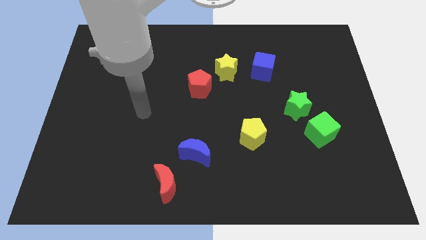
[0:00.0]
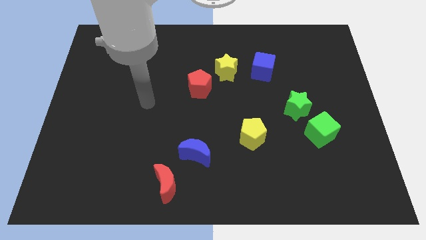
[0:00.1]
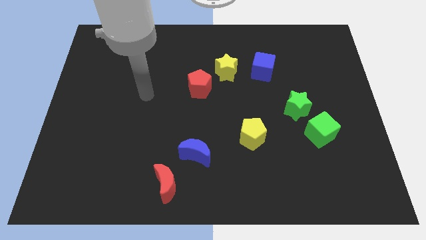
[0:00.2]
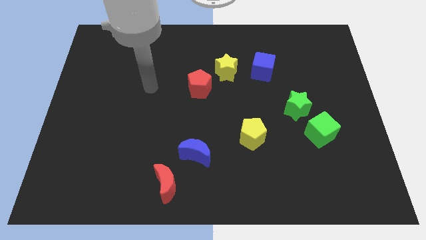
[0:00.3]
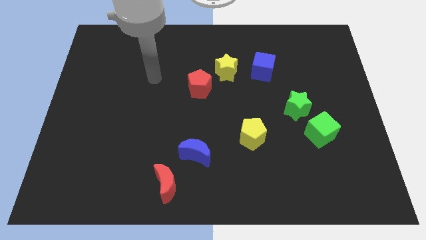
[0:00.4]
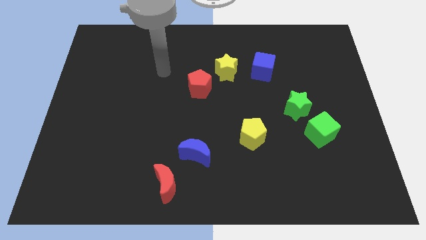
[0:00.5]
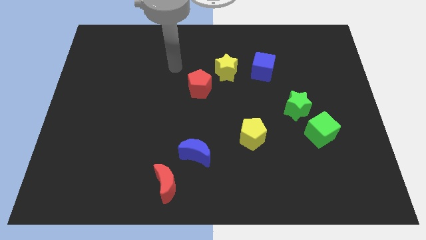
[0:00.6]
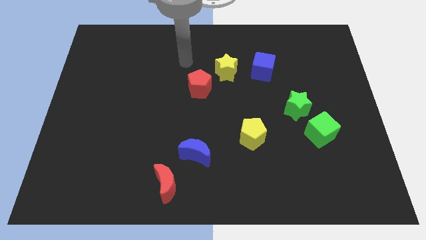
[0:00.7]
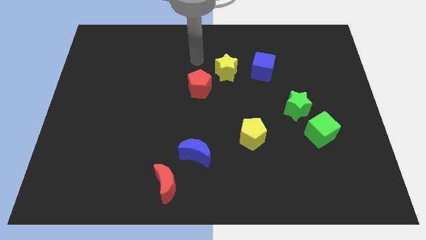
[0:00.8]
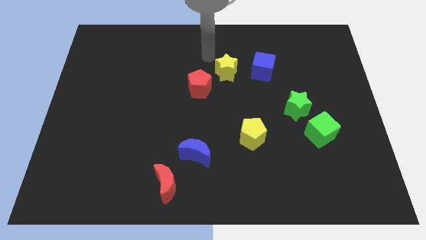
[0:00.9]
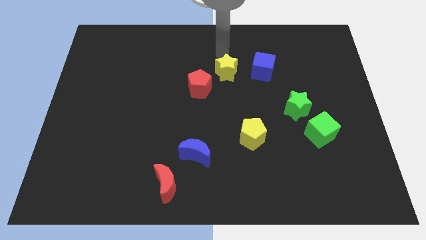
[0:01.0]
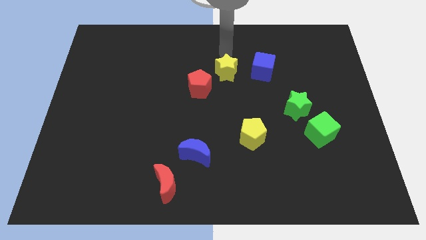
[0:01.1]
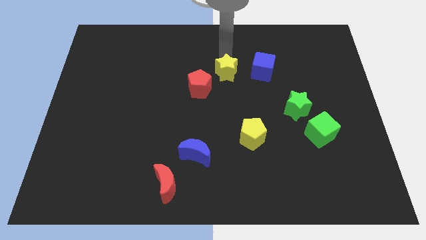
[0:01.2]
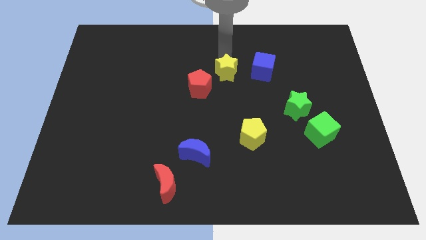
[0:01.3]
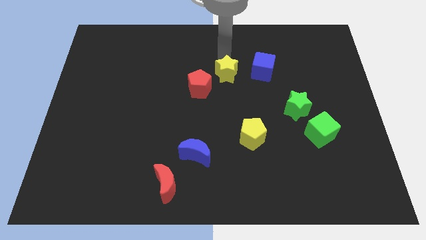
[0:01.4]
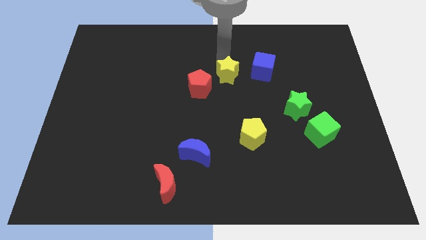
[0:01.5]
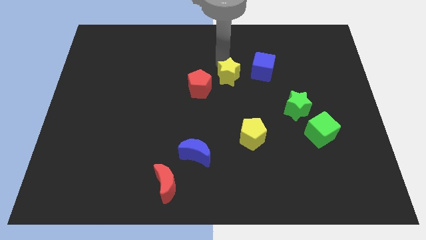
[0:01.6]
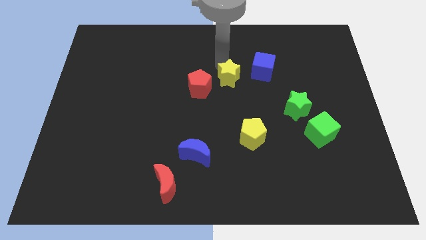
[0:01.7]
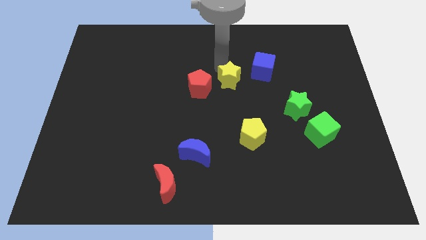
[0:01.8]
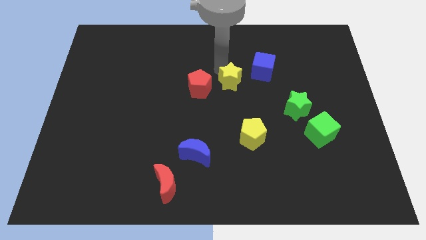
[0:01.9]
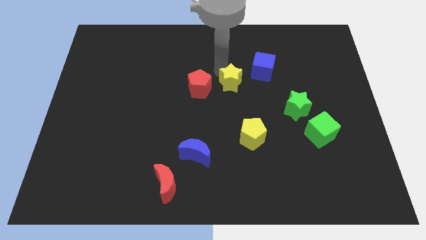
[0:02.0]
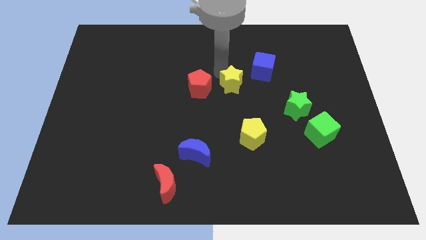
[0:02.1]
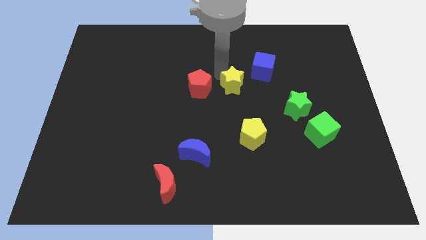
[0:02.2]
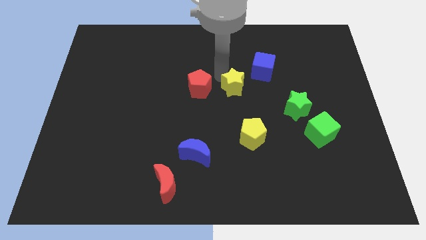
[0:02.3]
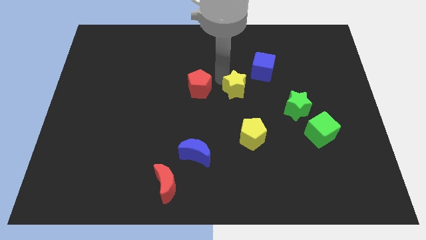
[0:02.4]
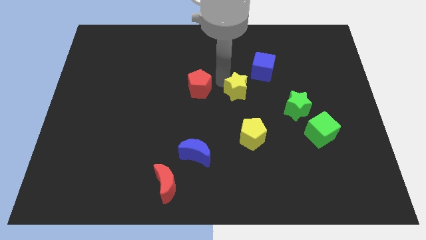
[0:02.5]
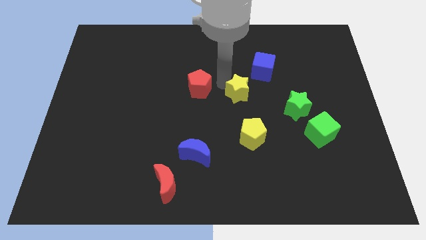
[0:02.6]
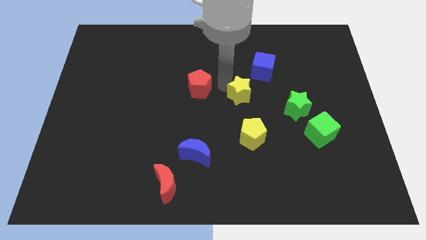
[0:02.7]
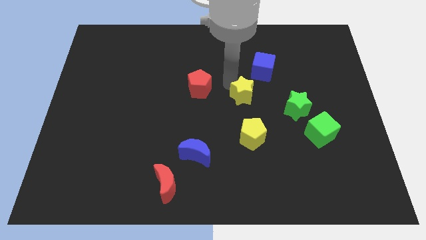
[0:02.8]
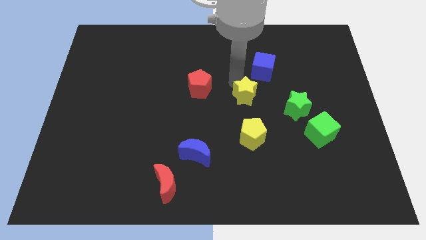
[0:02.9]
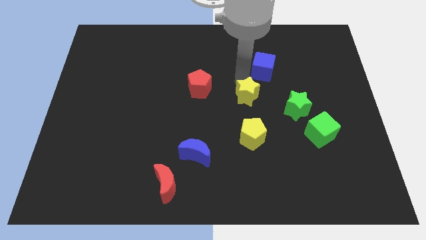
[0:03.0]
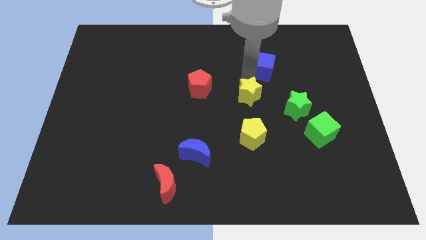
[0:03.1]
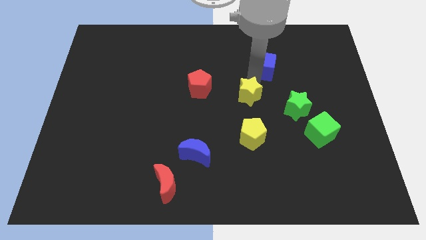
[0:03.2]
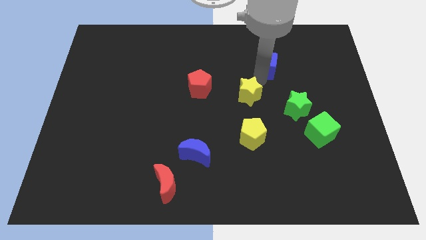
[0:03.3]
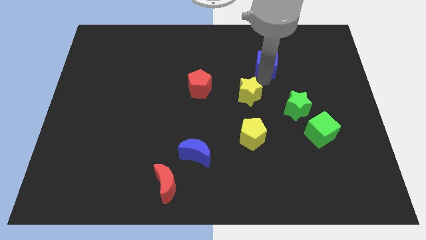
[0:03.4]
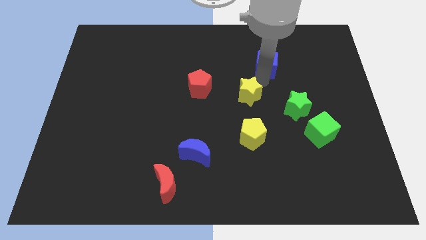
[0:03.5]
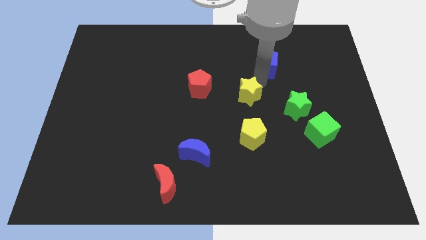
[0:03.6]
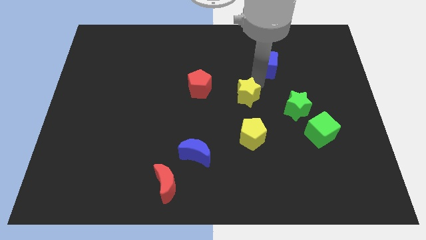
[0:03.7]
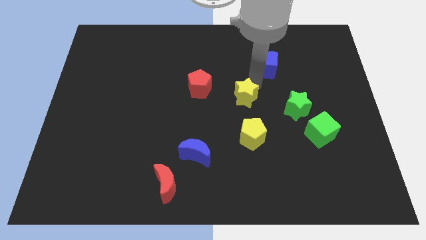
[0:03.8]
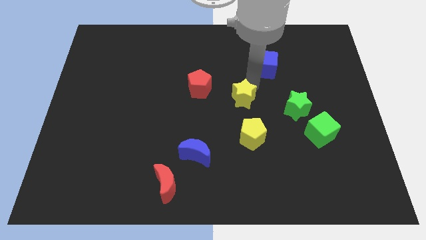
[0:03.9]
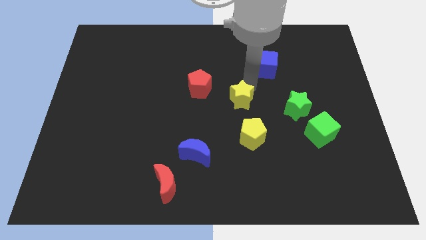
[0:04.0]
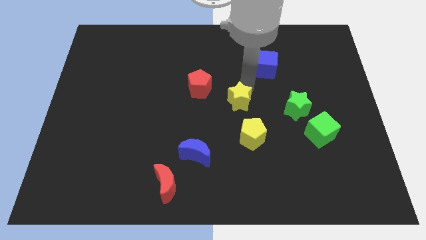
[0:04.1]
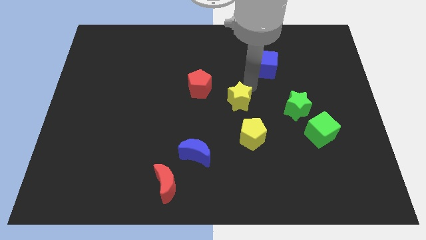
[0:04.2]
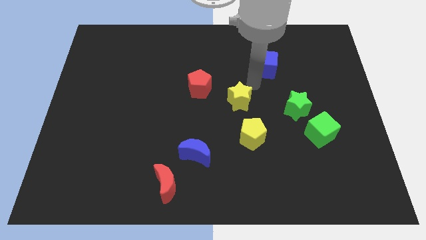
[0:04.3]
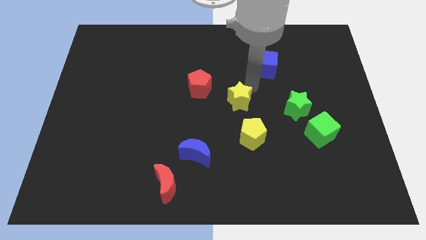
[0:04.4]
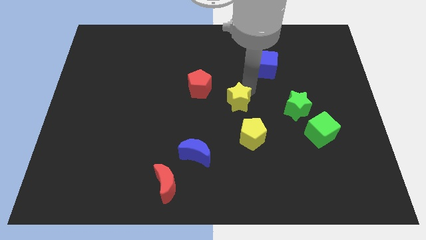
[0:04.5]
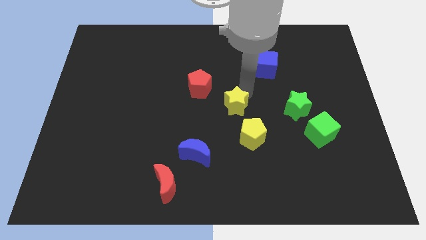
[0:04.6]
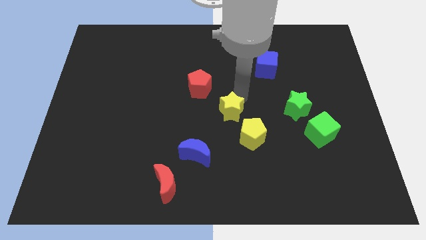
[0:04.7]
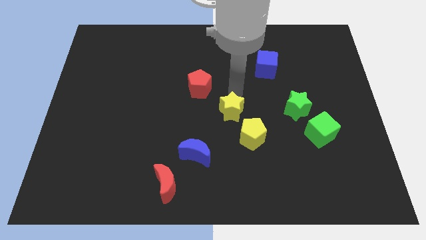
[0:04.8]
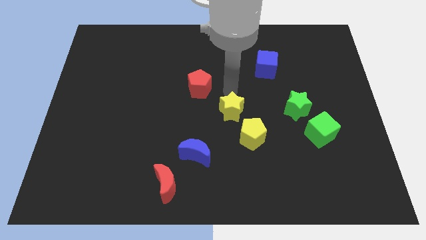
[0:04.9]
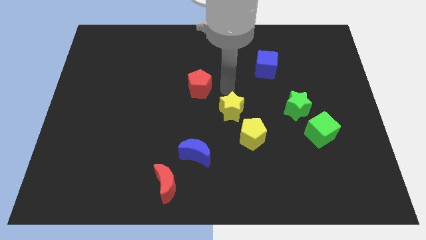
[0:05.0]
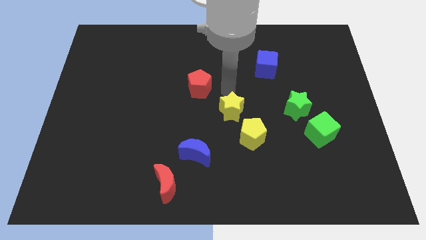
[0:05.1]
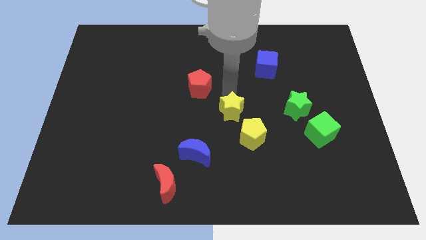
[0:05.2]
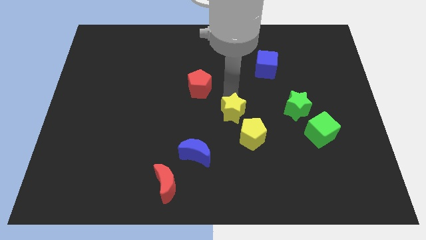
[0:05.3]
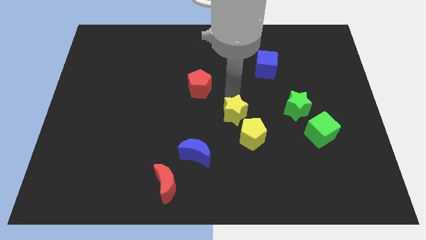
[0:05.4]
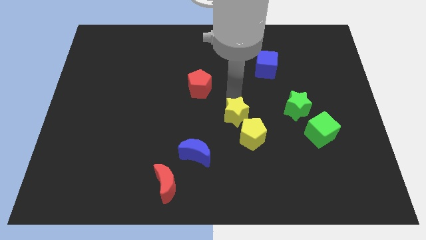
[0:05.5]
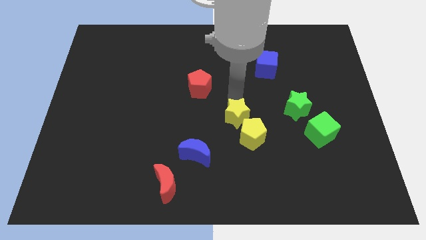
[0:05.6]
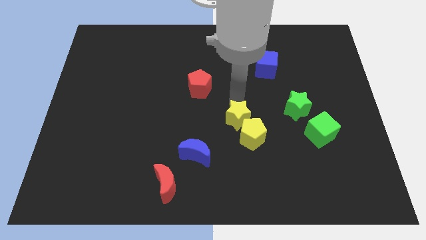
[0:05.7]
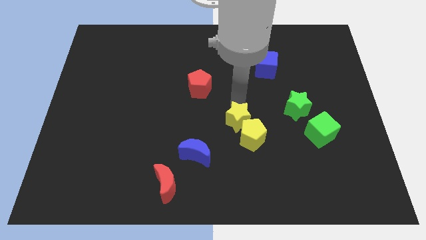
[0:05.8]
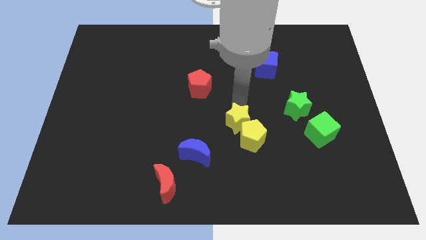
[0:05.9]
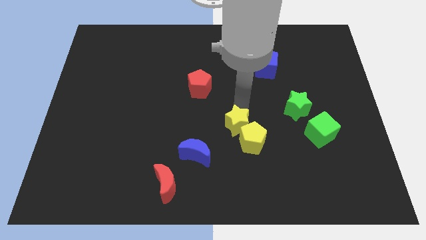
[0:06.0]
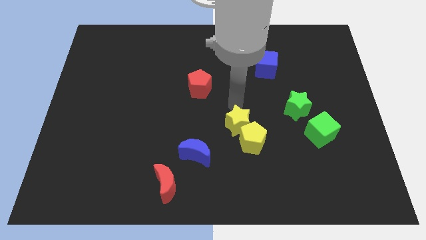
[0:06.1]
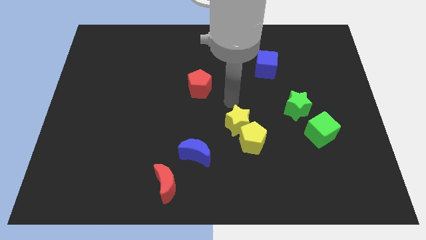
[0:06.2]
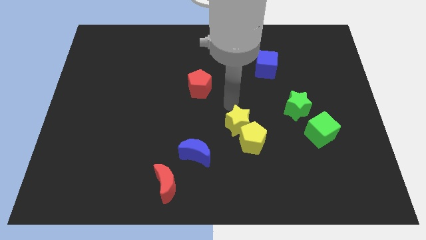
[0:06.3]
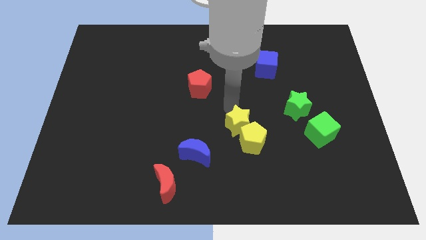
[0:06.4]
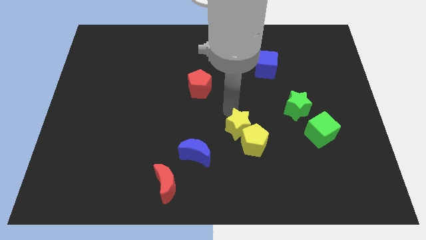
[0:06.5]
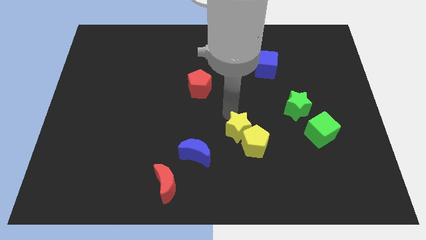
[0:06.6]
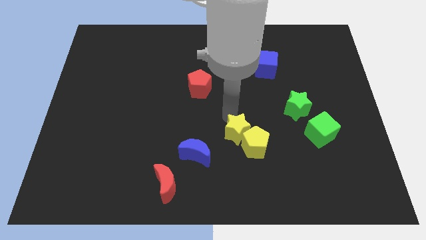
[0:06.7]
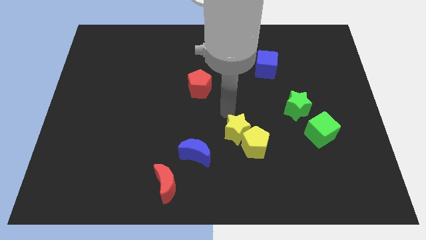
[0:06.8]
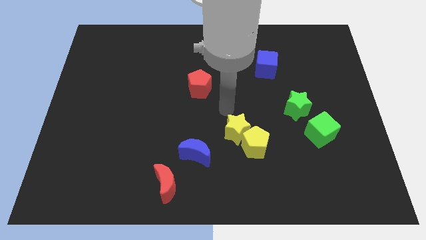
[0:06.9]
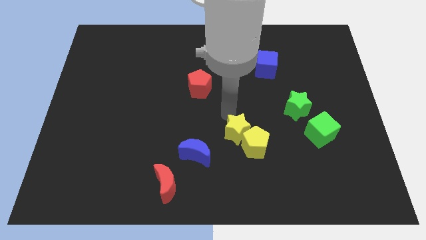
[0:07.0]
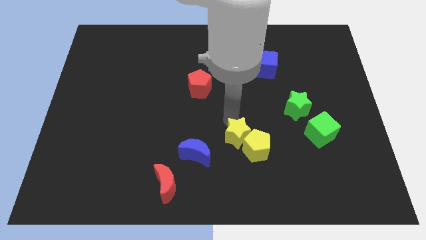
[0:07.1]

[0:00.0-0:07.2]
move the yellow star right of the blue moon
